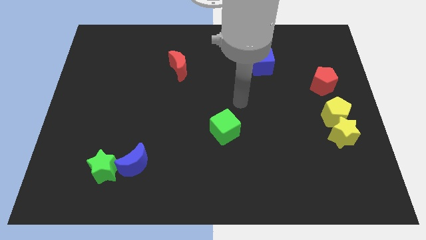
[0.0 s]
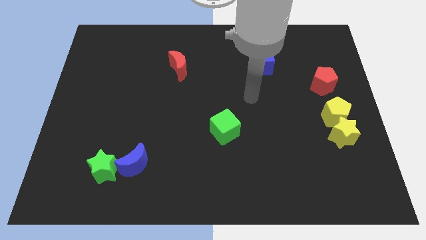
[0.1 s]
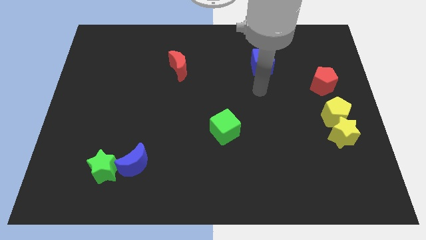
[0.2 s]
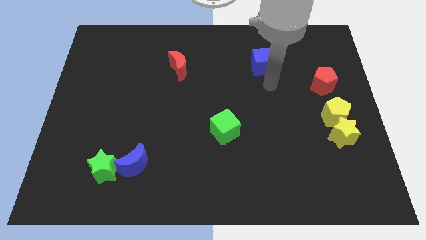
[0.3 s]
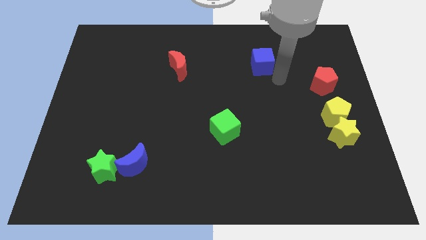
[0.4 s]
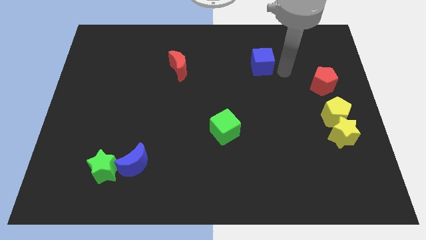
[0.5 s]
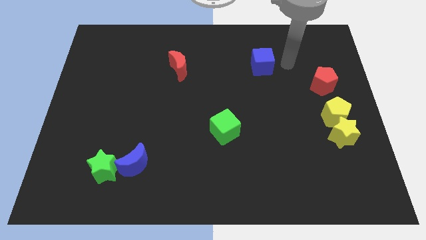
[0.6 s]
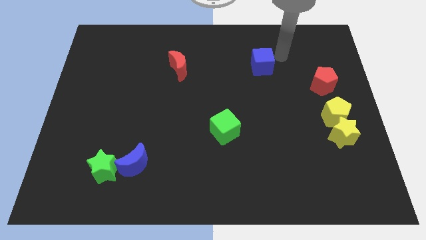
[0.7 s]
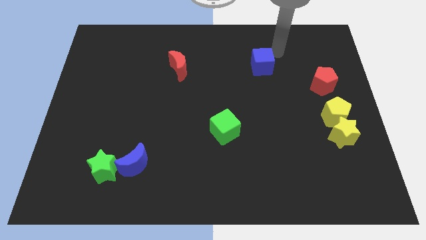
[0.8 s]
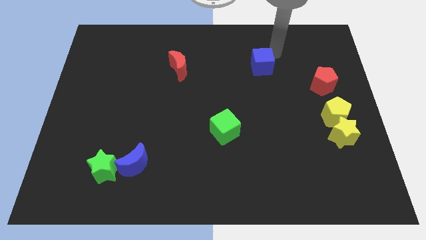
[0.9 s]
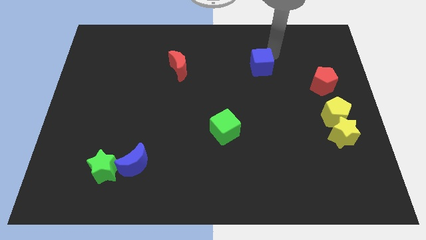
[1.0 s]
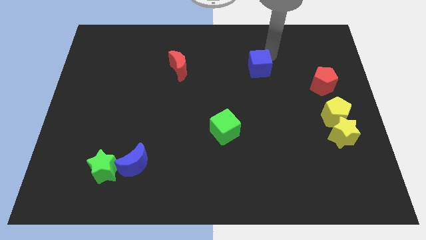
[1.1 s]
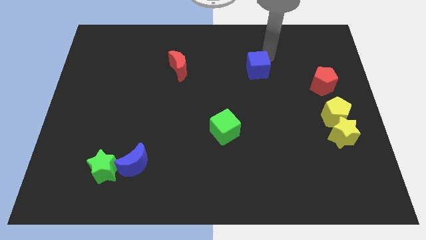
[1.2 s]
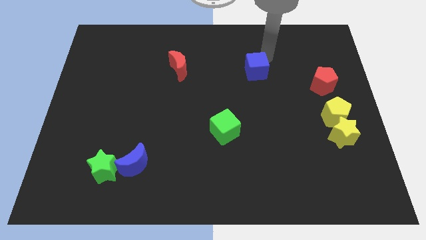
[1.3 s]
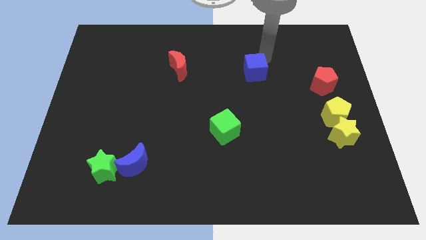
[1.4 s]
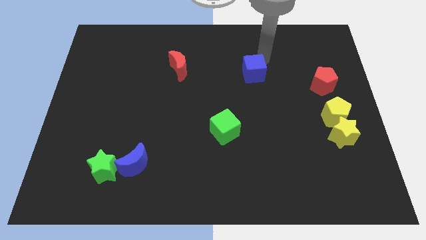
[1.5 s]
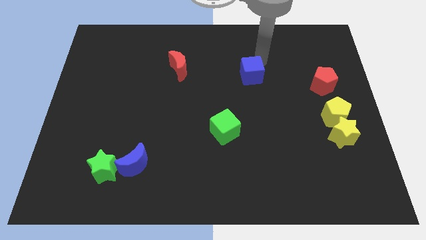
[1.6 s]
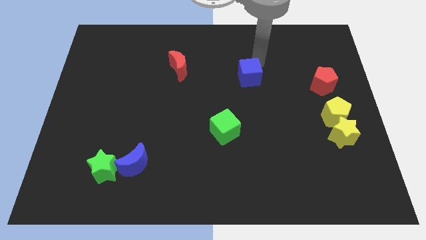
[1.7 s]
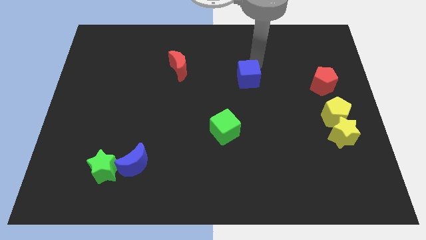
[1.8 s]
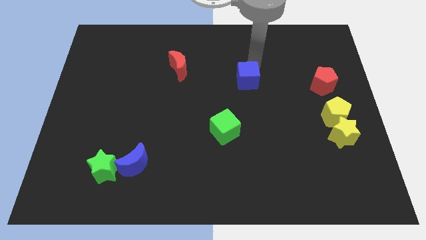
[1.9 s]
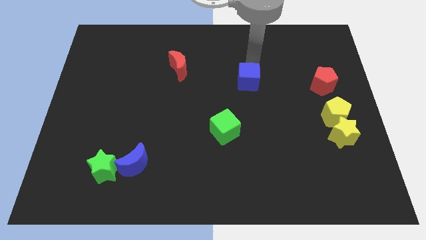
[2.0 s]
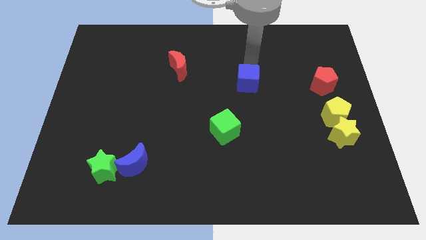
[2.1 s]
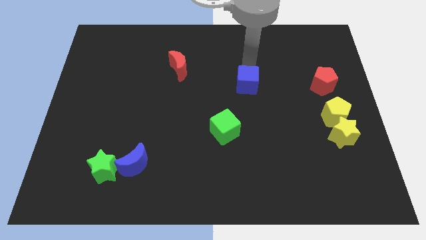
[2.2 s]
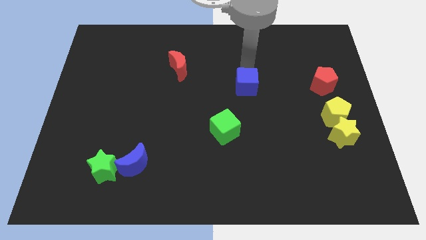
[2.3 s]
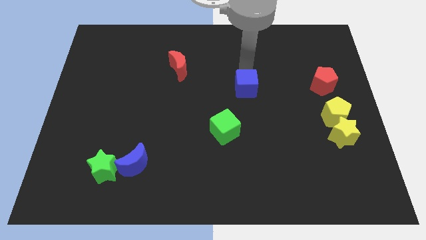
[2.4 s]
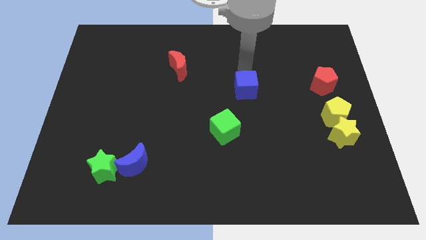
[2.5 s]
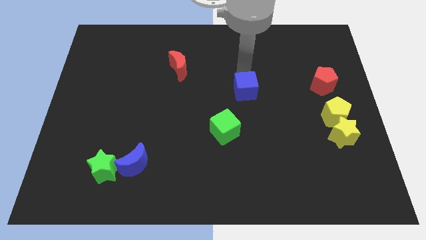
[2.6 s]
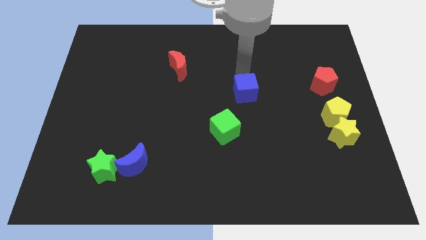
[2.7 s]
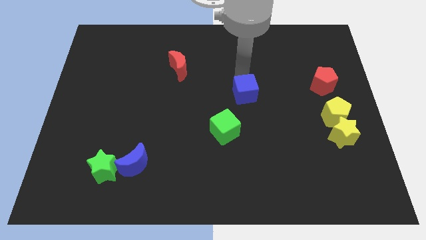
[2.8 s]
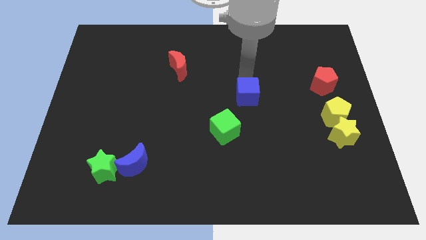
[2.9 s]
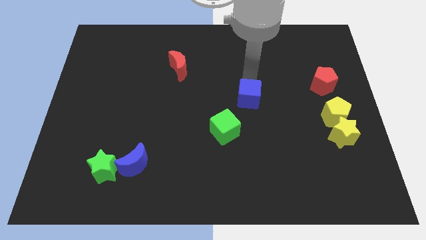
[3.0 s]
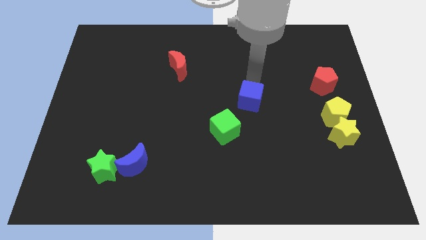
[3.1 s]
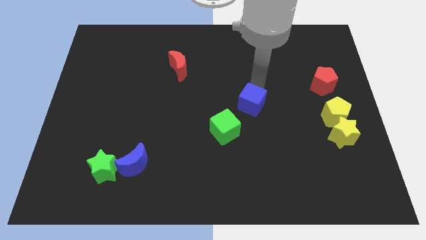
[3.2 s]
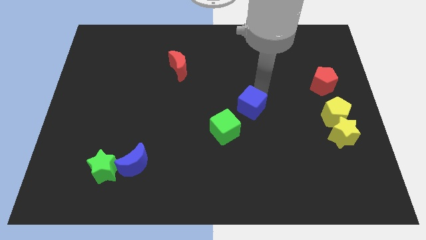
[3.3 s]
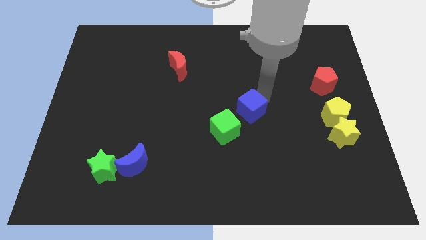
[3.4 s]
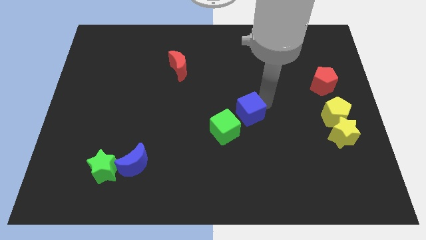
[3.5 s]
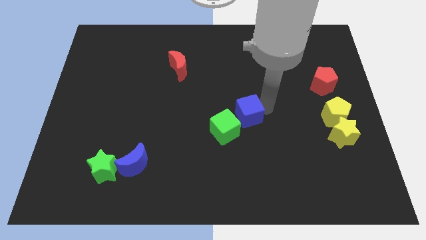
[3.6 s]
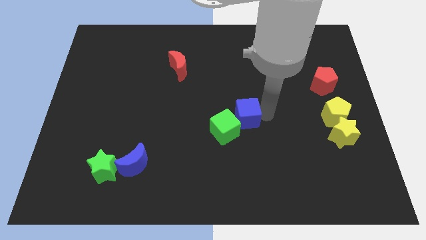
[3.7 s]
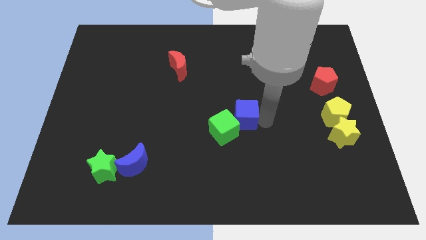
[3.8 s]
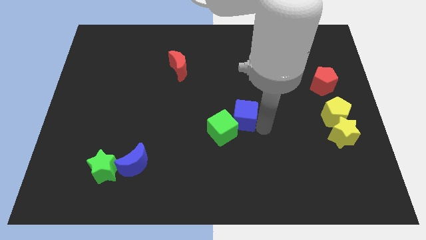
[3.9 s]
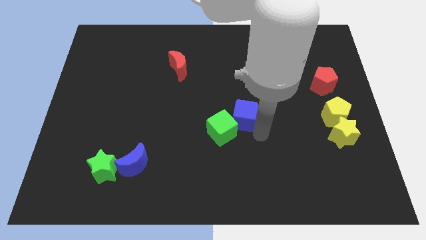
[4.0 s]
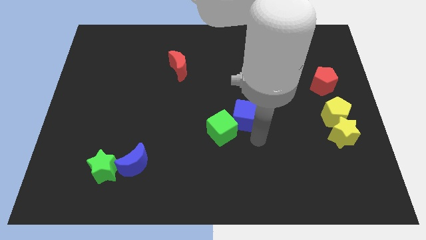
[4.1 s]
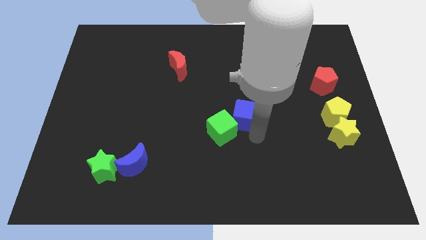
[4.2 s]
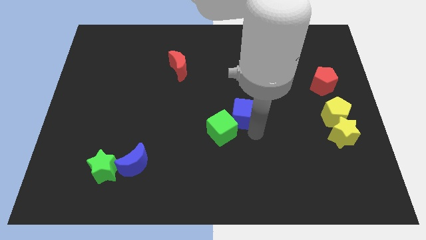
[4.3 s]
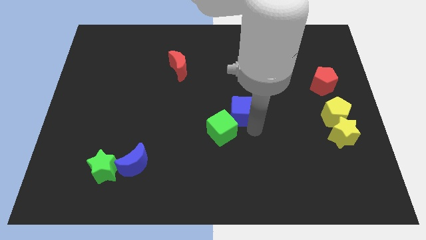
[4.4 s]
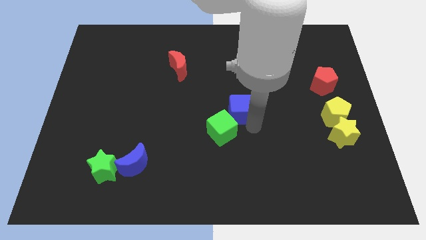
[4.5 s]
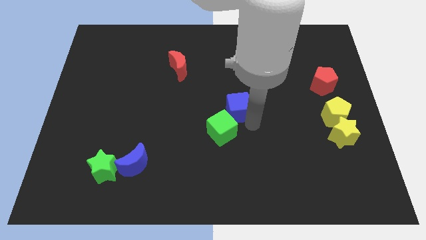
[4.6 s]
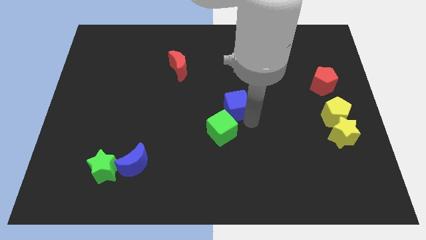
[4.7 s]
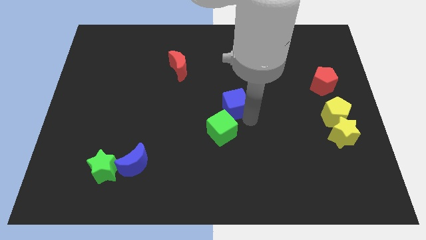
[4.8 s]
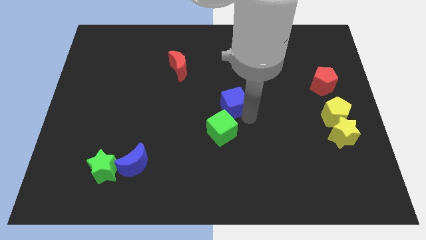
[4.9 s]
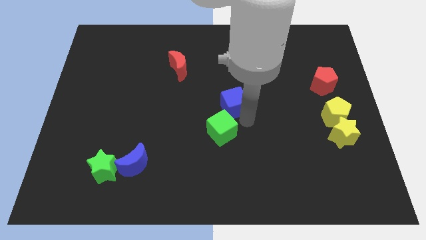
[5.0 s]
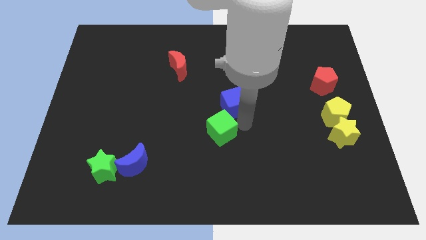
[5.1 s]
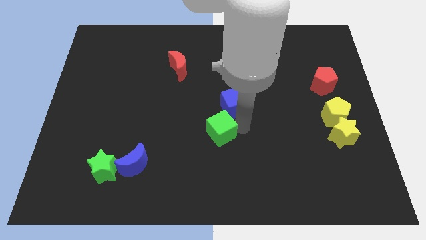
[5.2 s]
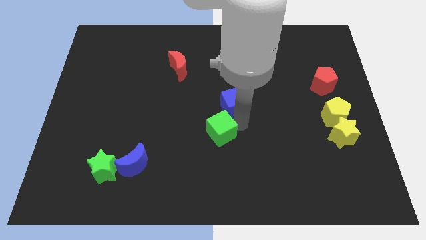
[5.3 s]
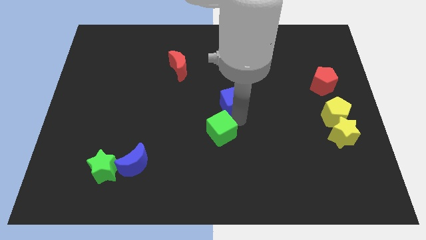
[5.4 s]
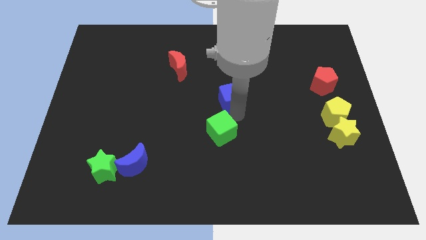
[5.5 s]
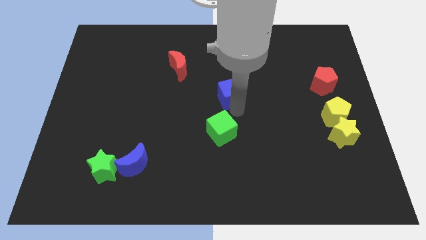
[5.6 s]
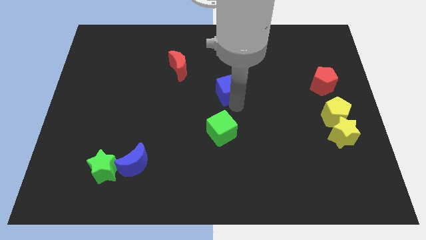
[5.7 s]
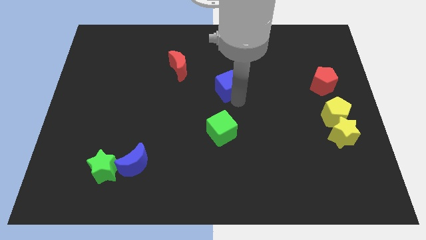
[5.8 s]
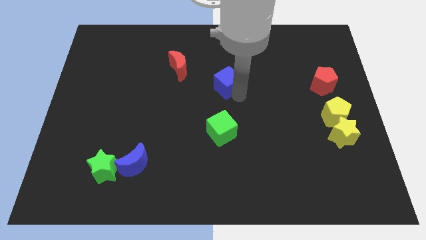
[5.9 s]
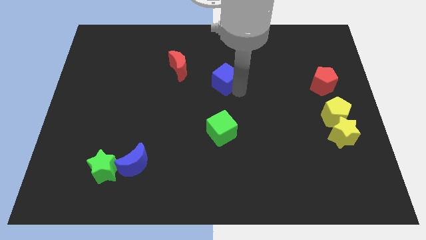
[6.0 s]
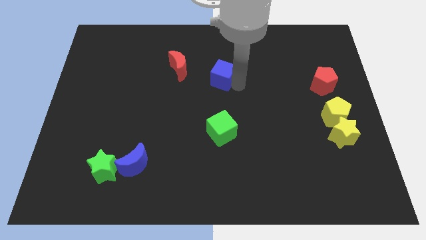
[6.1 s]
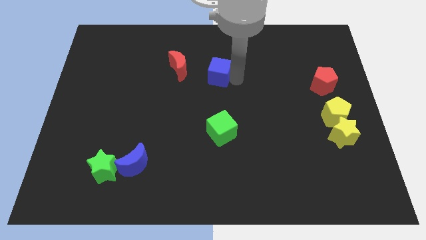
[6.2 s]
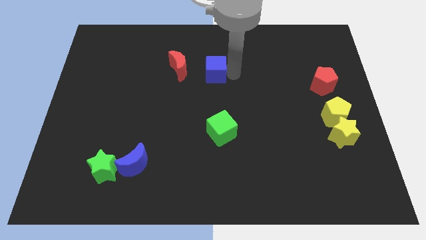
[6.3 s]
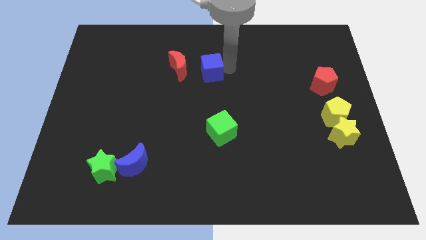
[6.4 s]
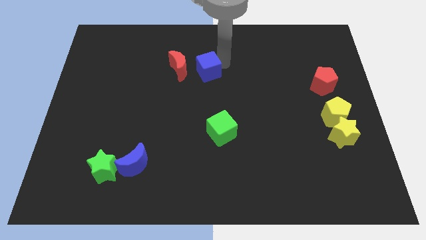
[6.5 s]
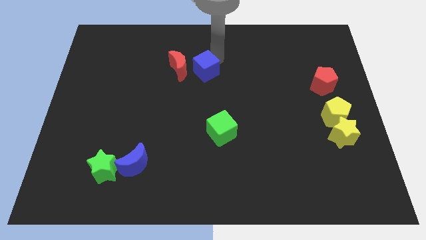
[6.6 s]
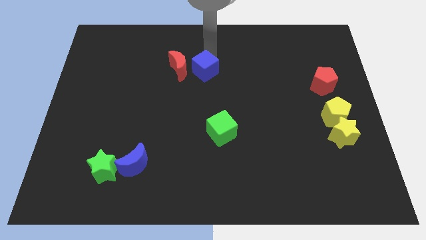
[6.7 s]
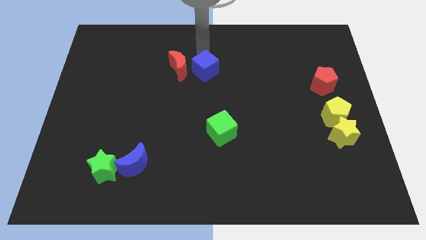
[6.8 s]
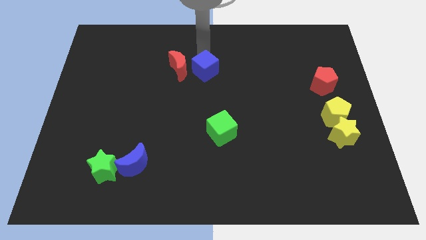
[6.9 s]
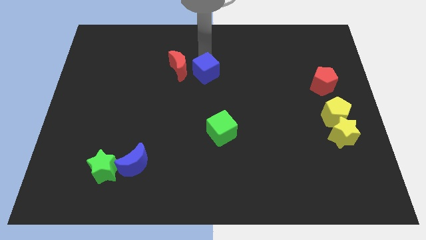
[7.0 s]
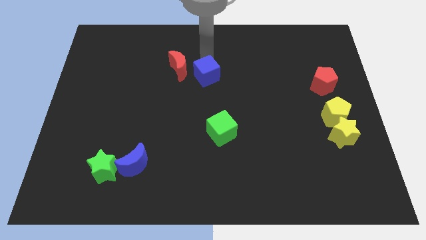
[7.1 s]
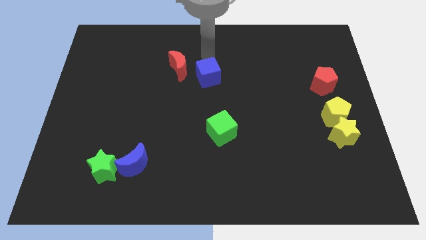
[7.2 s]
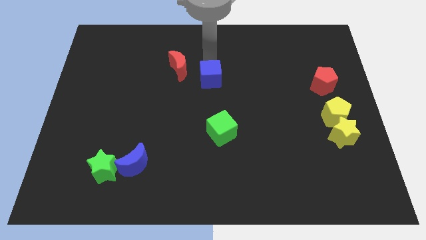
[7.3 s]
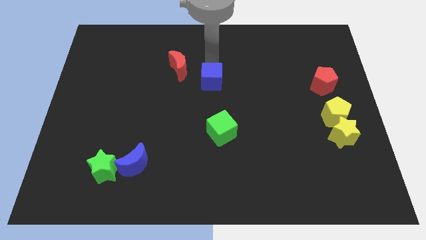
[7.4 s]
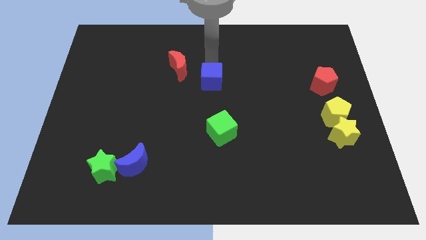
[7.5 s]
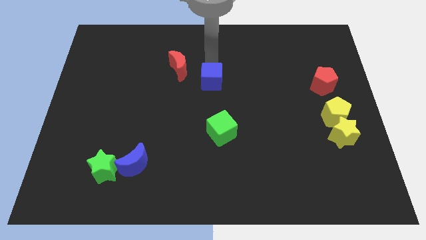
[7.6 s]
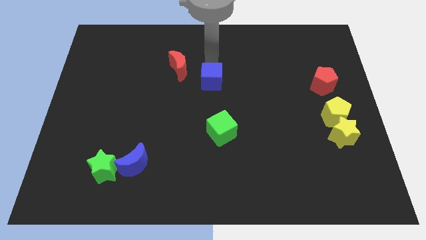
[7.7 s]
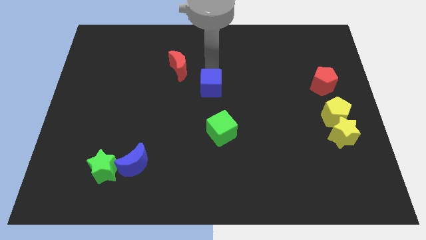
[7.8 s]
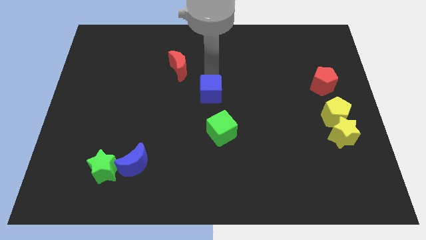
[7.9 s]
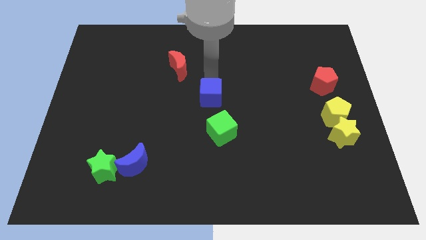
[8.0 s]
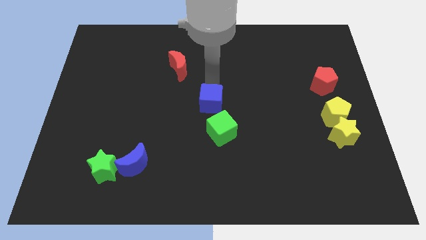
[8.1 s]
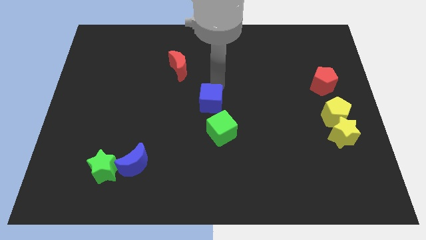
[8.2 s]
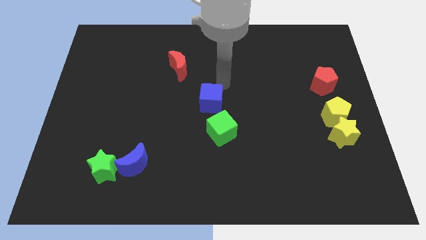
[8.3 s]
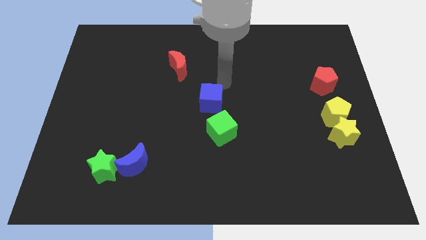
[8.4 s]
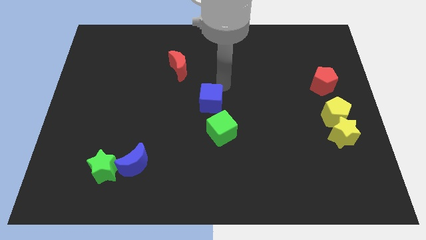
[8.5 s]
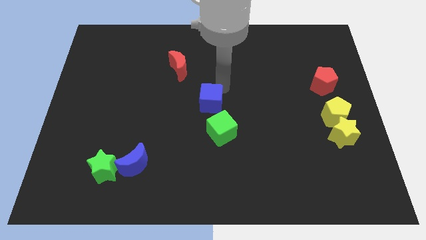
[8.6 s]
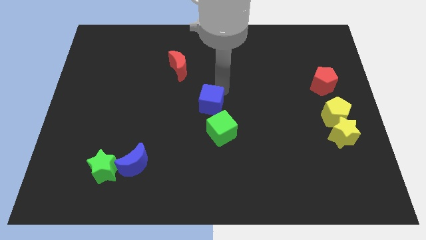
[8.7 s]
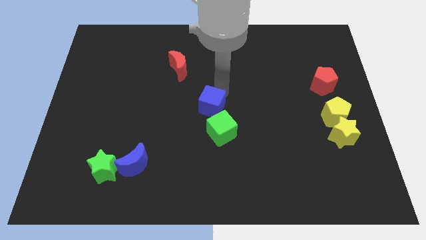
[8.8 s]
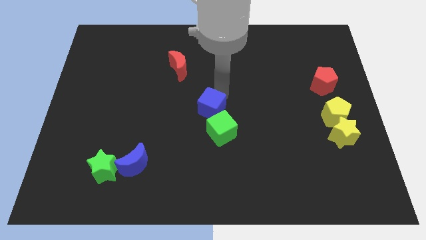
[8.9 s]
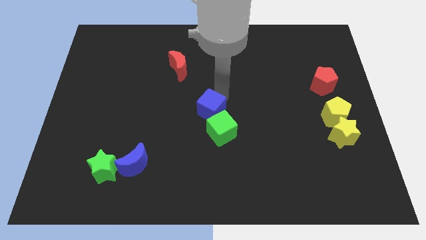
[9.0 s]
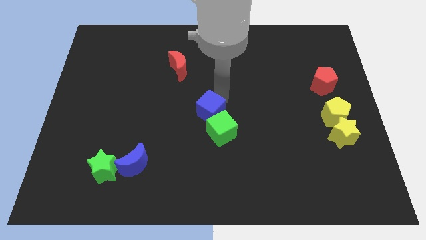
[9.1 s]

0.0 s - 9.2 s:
move the blue cube downwards and to the left diagonally
